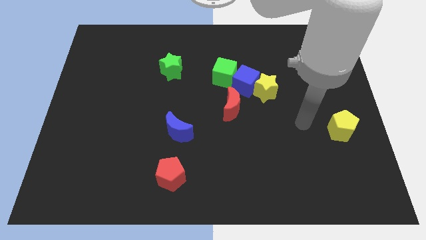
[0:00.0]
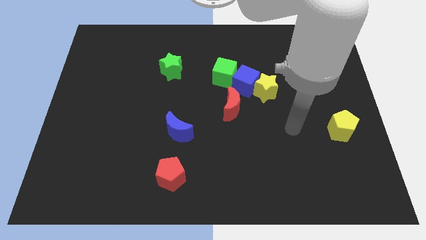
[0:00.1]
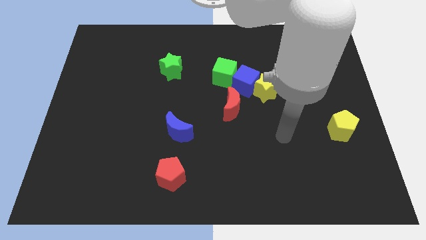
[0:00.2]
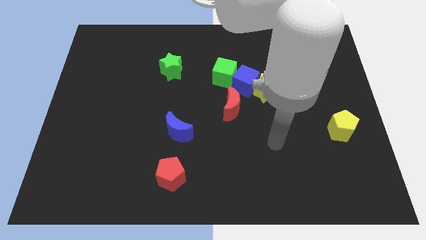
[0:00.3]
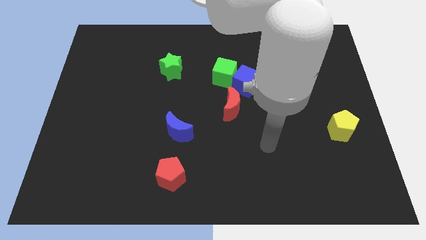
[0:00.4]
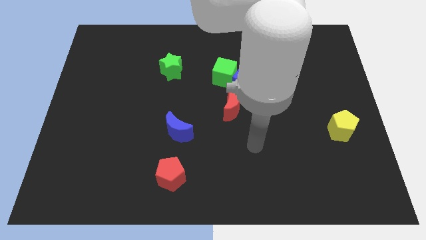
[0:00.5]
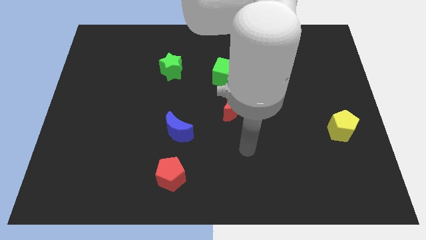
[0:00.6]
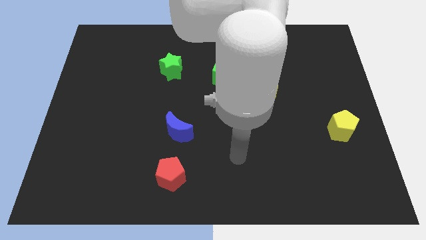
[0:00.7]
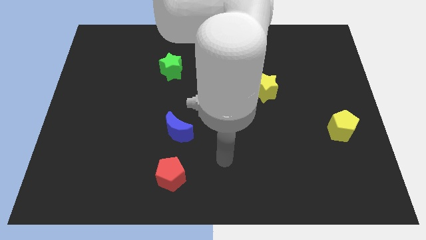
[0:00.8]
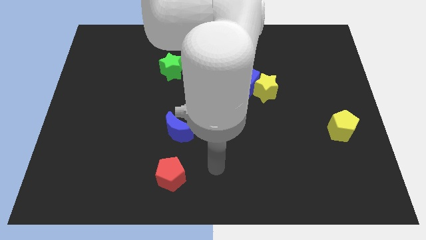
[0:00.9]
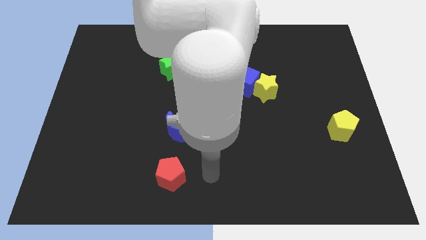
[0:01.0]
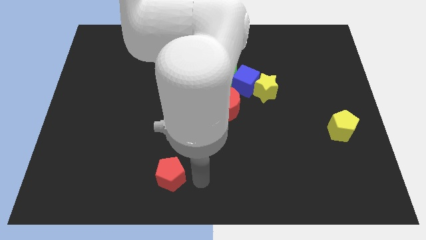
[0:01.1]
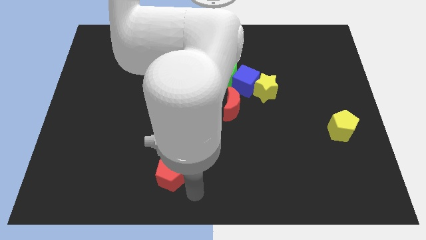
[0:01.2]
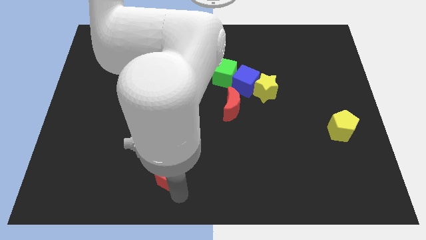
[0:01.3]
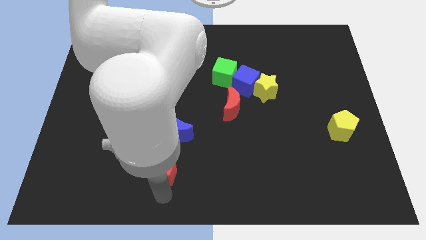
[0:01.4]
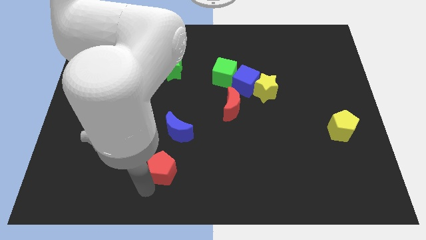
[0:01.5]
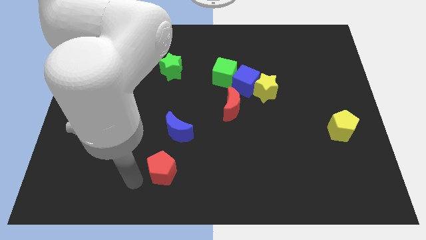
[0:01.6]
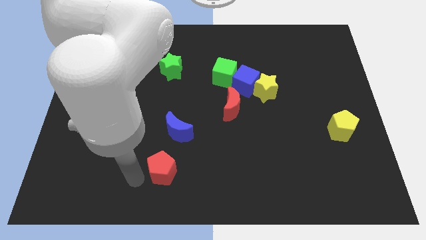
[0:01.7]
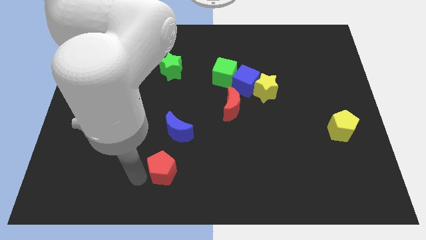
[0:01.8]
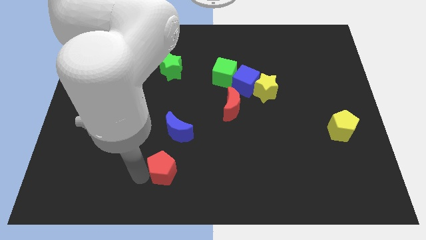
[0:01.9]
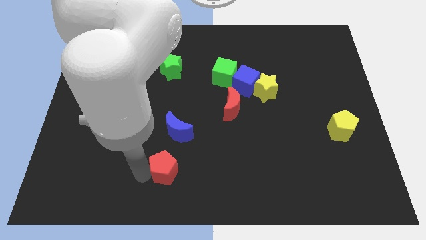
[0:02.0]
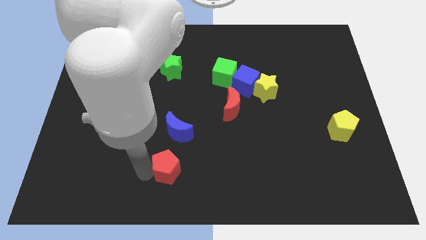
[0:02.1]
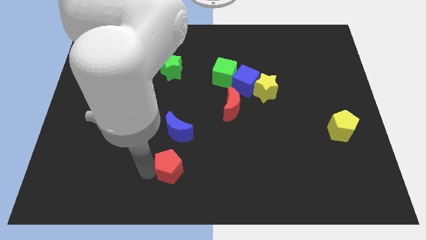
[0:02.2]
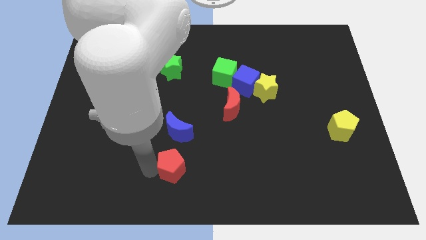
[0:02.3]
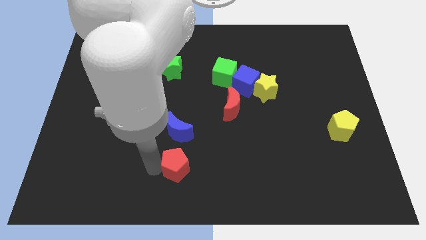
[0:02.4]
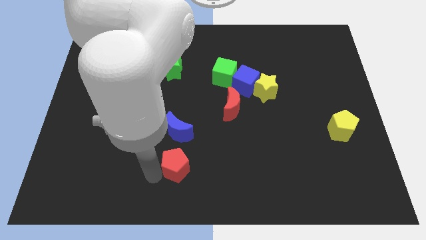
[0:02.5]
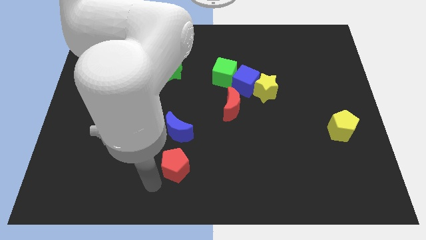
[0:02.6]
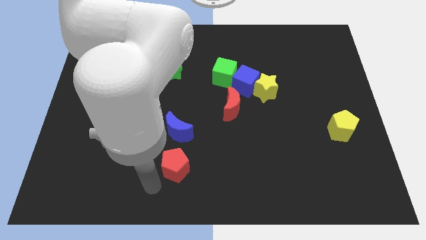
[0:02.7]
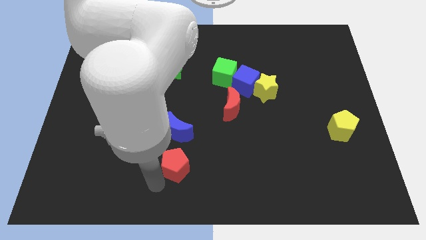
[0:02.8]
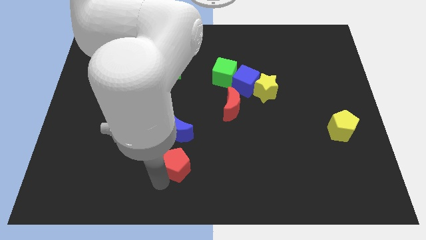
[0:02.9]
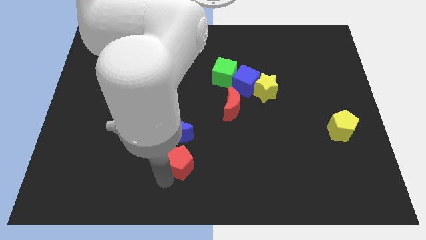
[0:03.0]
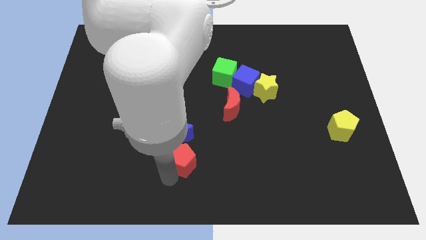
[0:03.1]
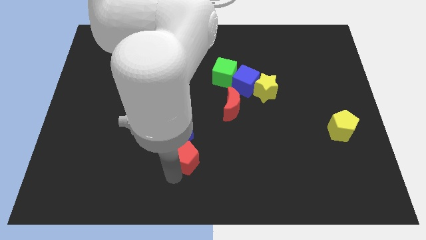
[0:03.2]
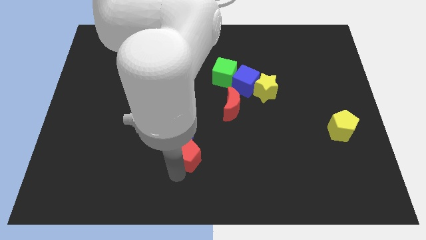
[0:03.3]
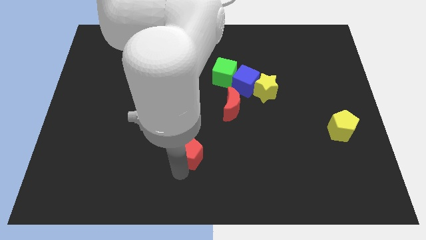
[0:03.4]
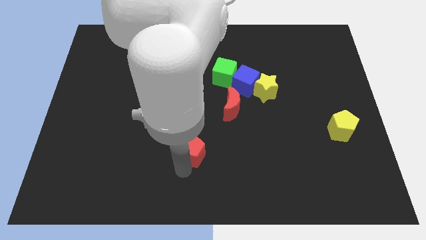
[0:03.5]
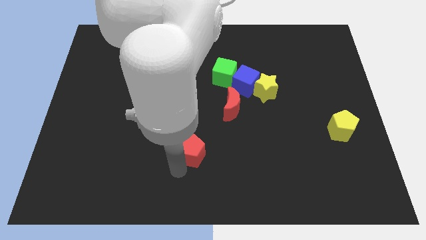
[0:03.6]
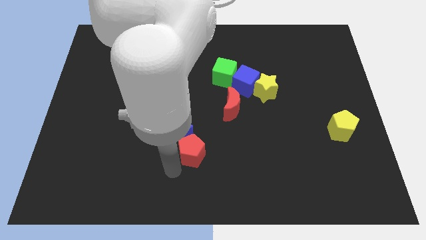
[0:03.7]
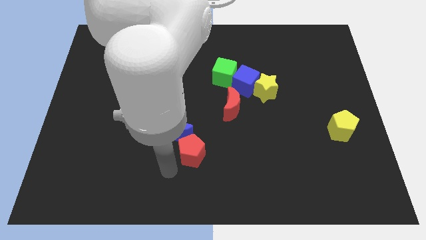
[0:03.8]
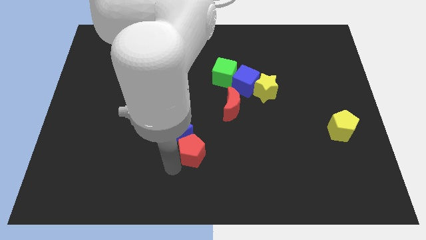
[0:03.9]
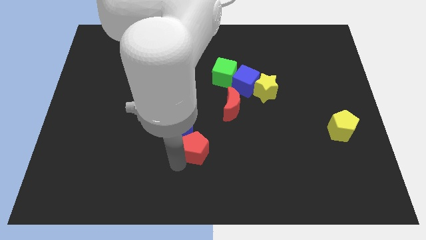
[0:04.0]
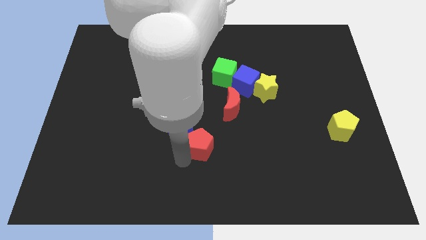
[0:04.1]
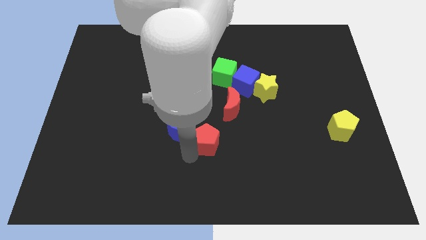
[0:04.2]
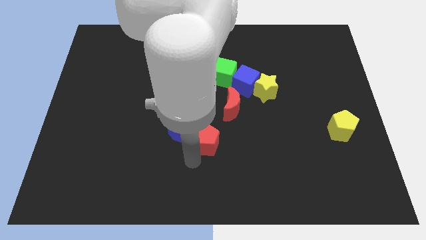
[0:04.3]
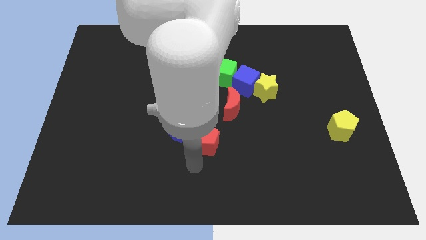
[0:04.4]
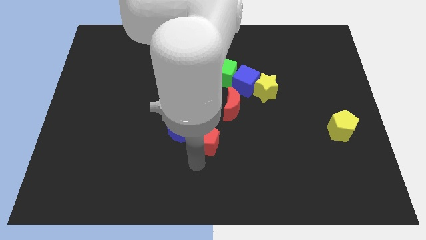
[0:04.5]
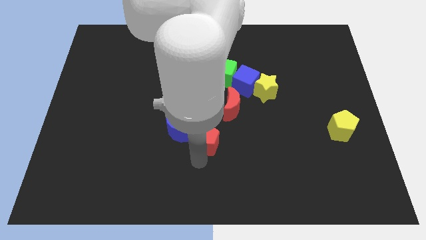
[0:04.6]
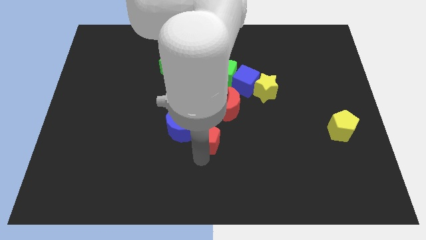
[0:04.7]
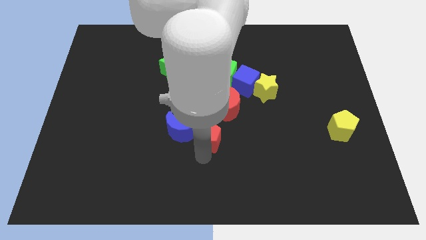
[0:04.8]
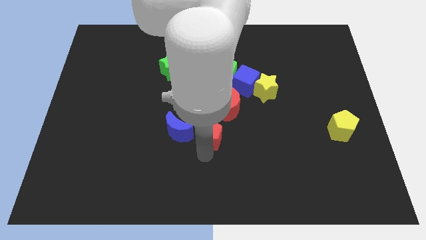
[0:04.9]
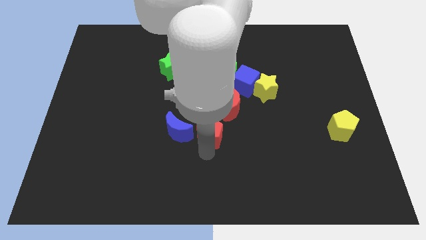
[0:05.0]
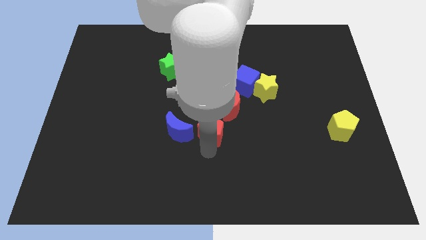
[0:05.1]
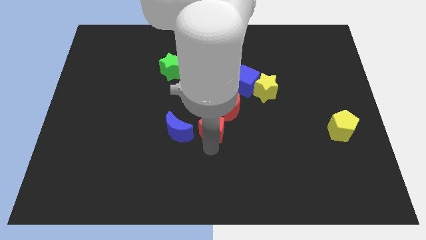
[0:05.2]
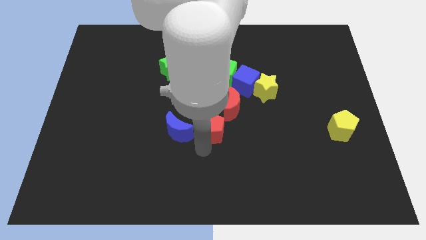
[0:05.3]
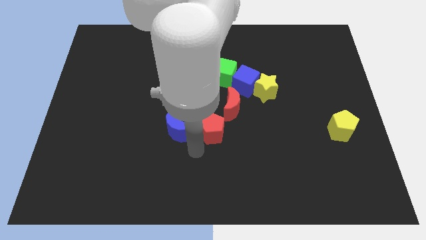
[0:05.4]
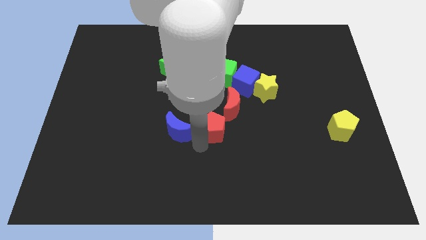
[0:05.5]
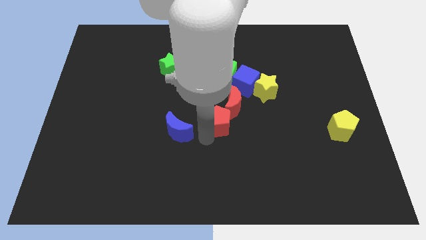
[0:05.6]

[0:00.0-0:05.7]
move the red pentagon to the red moon

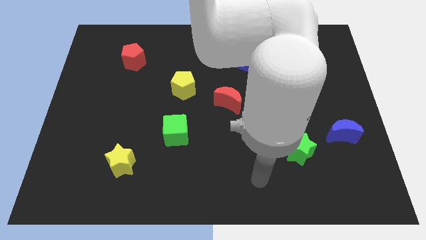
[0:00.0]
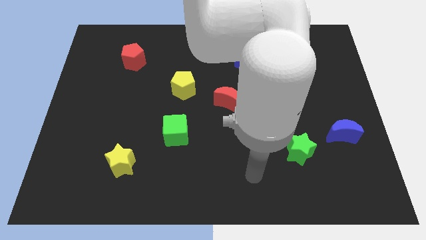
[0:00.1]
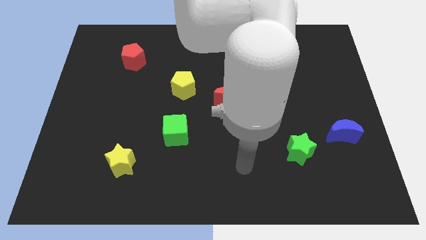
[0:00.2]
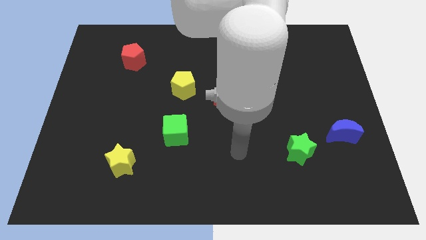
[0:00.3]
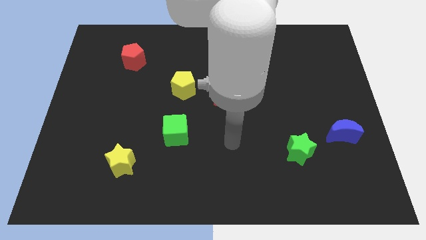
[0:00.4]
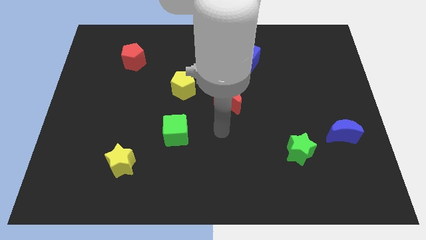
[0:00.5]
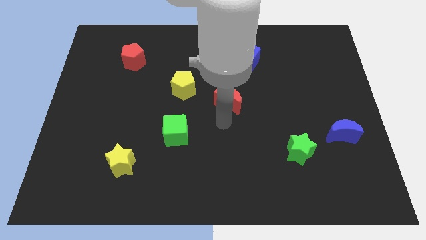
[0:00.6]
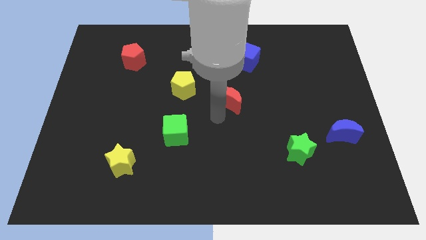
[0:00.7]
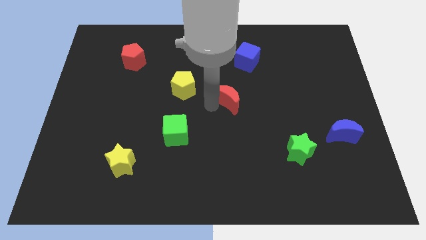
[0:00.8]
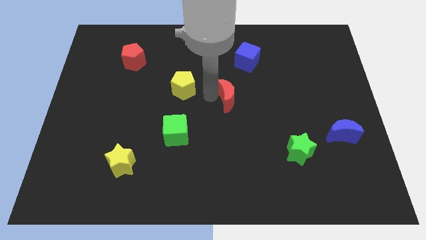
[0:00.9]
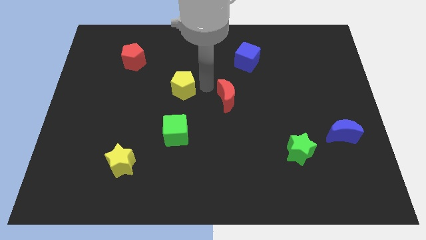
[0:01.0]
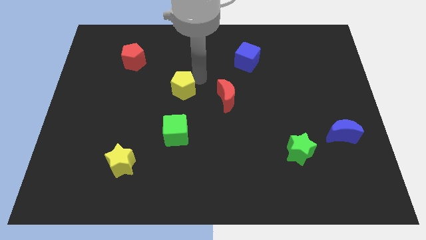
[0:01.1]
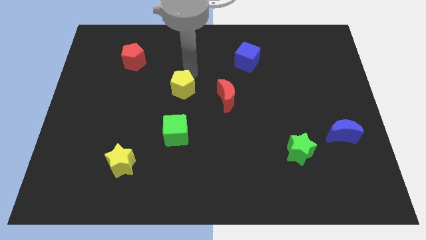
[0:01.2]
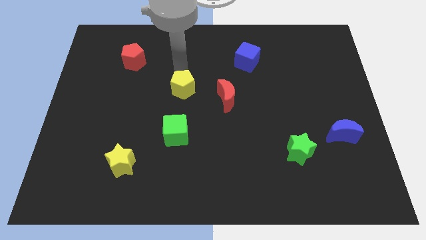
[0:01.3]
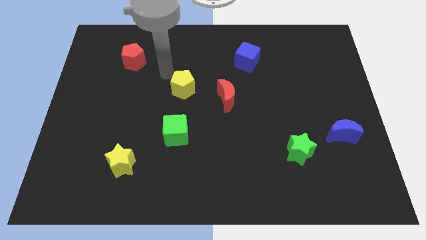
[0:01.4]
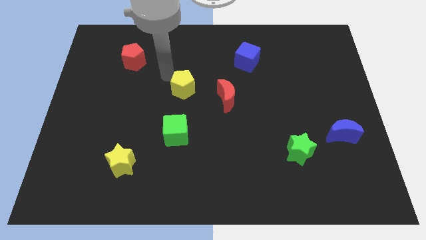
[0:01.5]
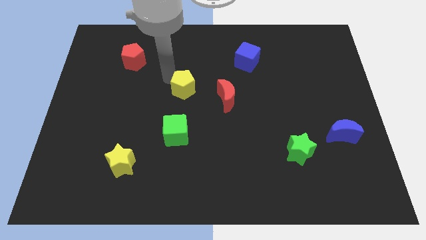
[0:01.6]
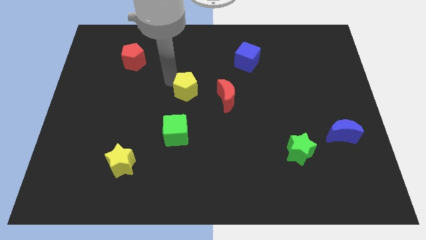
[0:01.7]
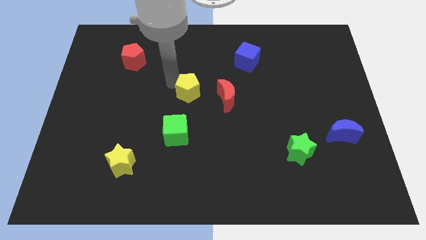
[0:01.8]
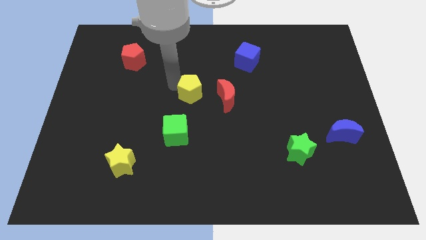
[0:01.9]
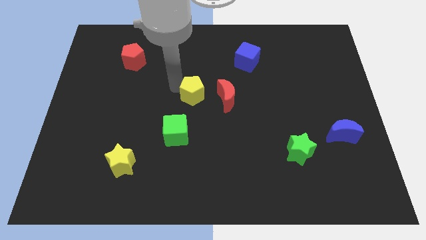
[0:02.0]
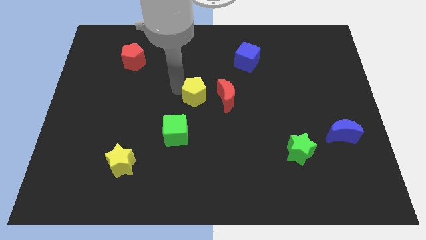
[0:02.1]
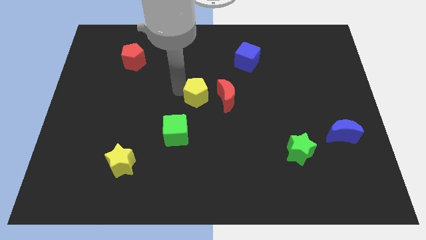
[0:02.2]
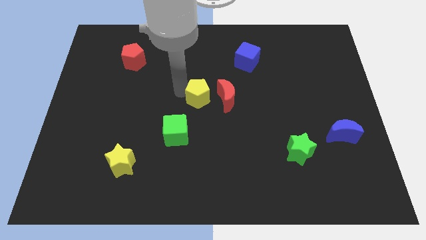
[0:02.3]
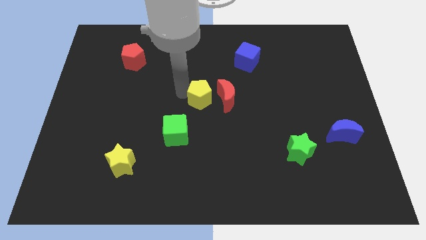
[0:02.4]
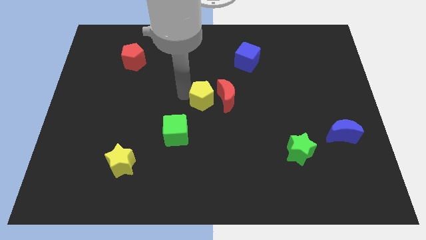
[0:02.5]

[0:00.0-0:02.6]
slide the yellow pentagon next to the red moon
